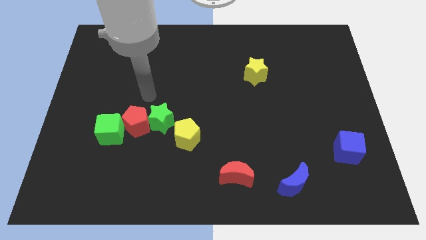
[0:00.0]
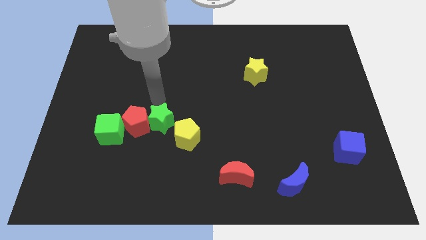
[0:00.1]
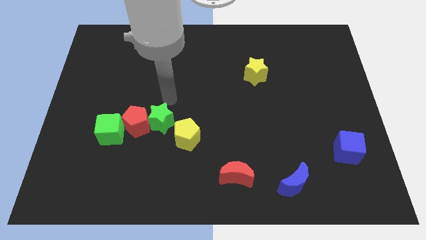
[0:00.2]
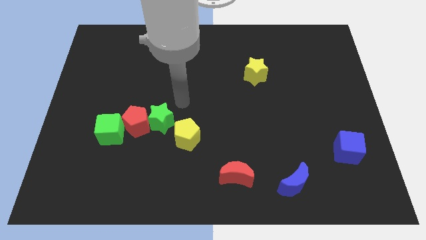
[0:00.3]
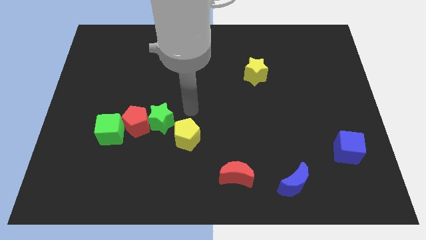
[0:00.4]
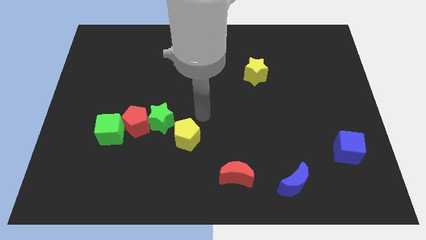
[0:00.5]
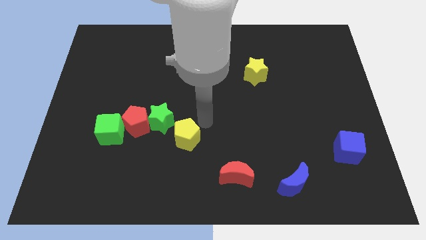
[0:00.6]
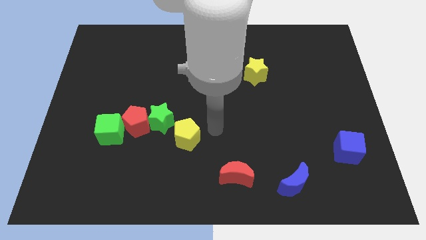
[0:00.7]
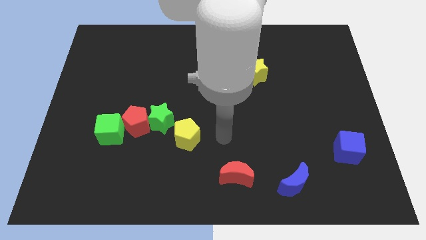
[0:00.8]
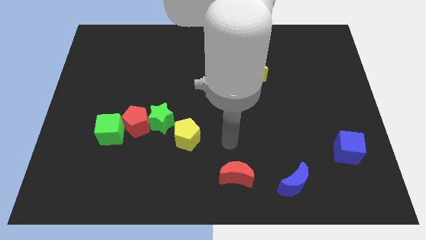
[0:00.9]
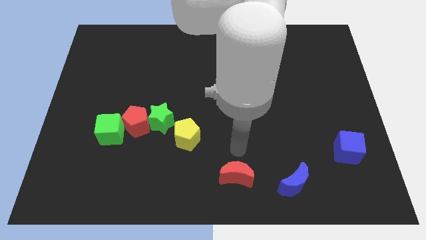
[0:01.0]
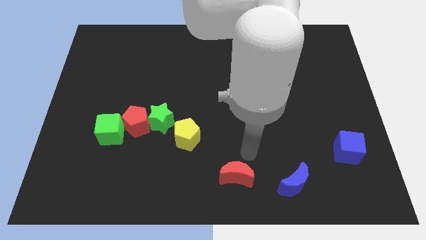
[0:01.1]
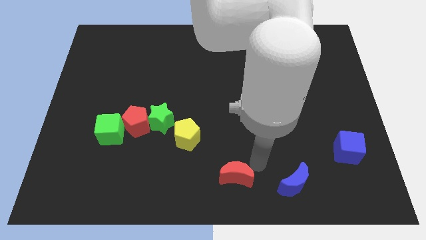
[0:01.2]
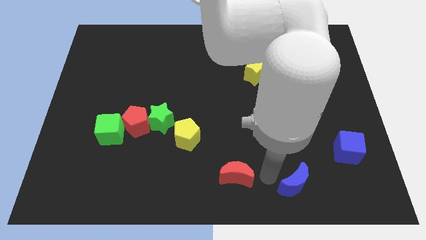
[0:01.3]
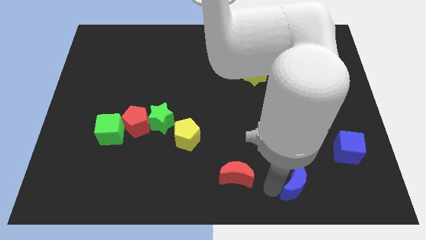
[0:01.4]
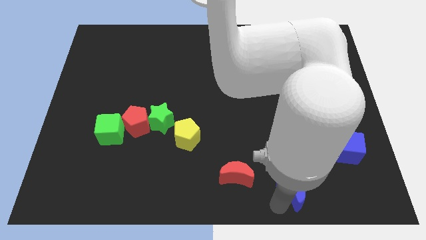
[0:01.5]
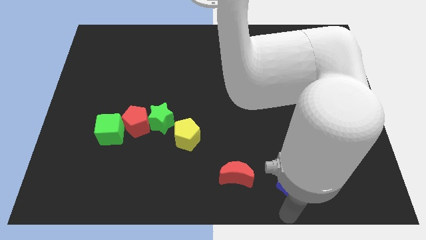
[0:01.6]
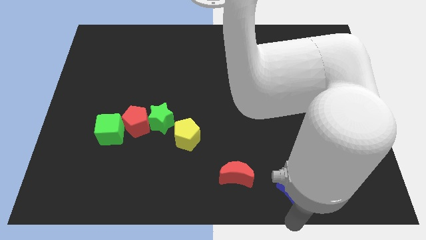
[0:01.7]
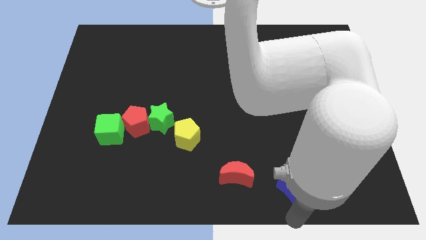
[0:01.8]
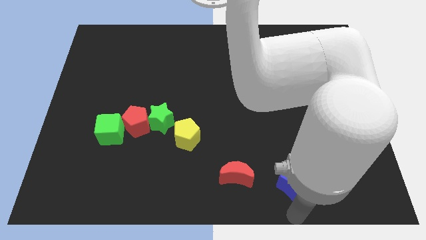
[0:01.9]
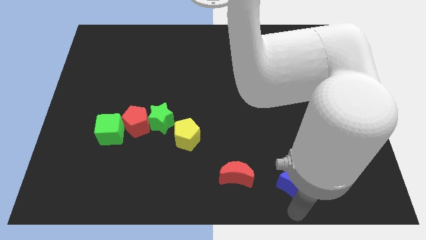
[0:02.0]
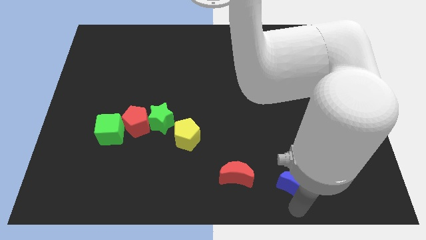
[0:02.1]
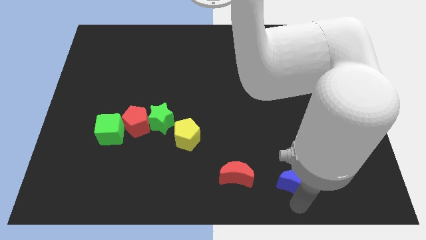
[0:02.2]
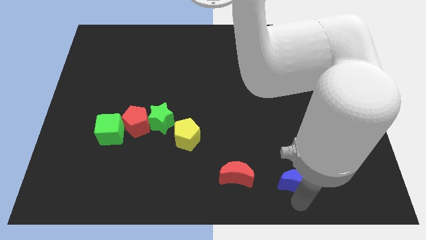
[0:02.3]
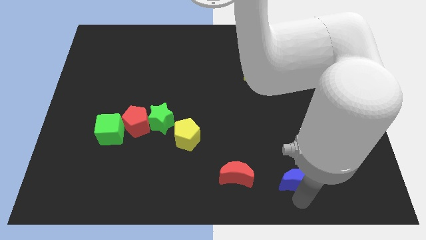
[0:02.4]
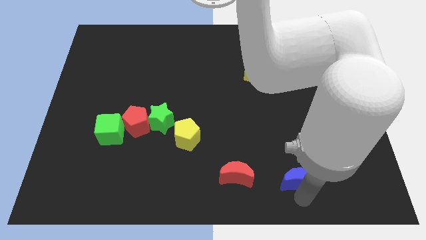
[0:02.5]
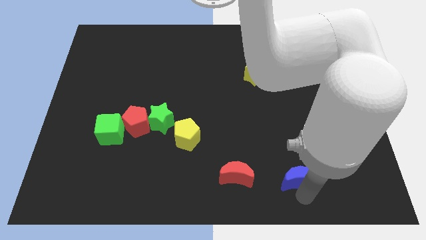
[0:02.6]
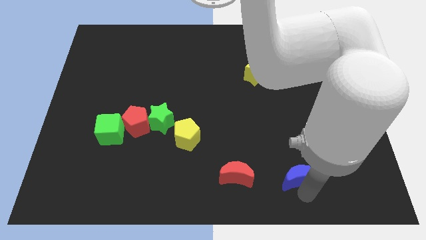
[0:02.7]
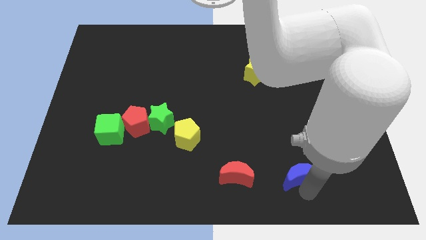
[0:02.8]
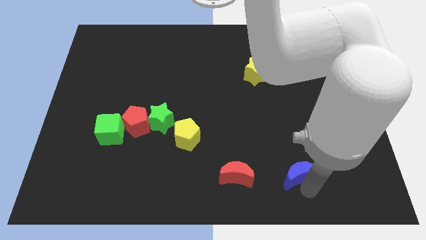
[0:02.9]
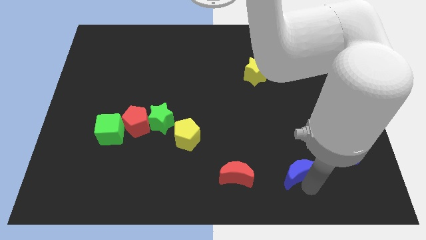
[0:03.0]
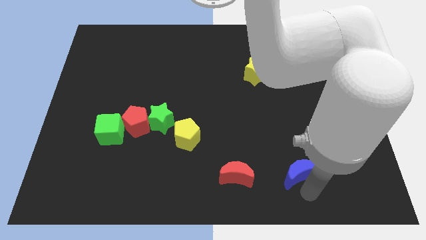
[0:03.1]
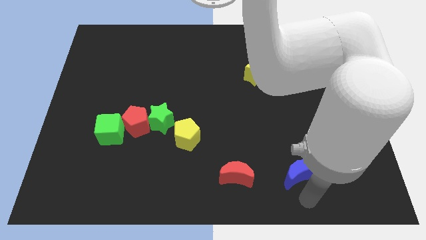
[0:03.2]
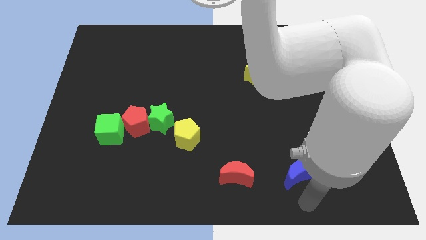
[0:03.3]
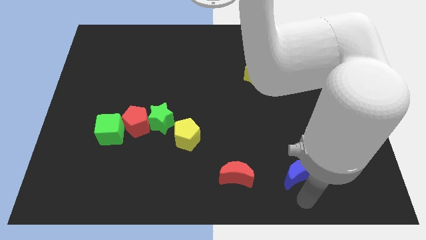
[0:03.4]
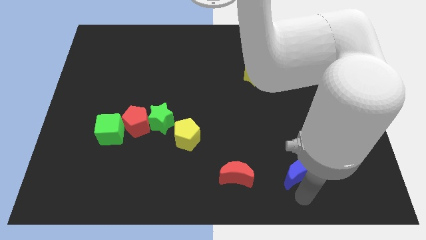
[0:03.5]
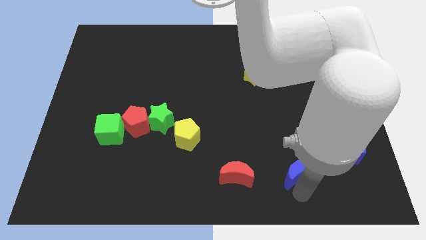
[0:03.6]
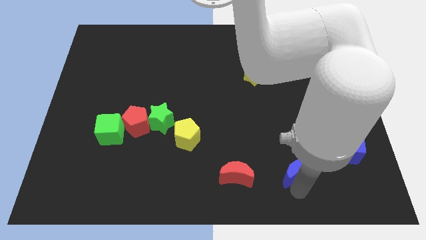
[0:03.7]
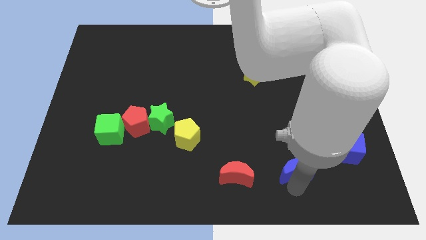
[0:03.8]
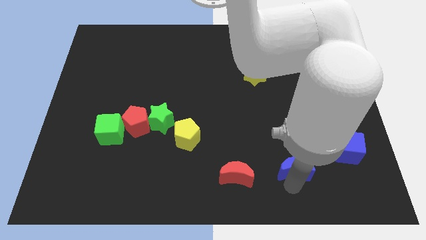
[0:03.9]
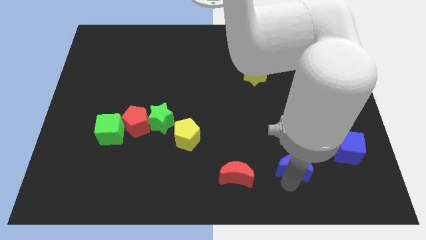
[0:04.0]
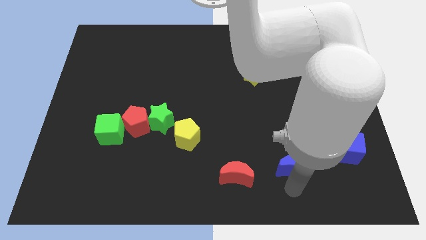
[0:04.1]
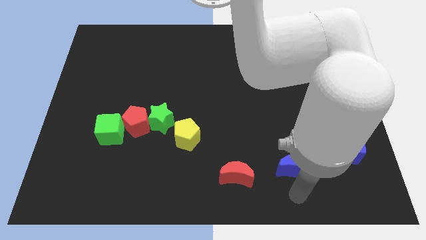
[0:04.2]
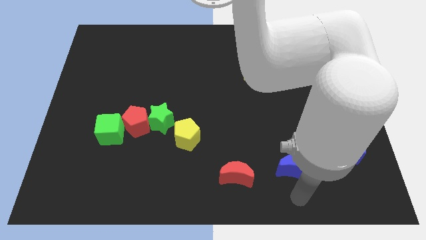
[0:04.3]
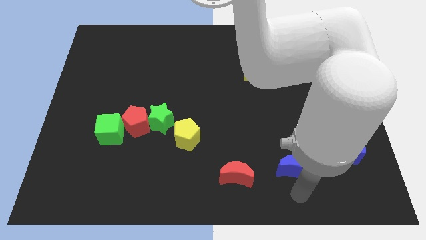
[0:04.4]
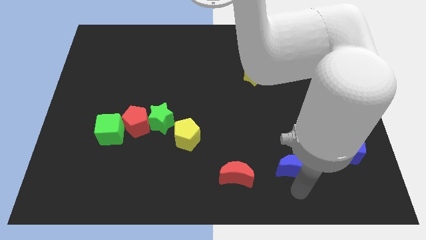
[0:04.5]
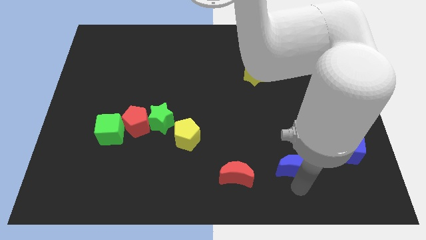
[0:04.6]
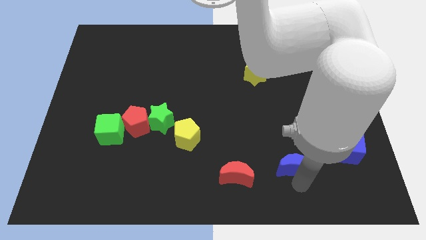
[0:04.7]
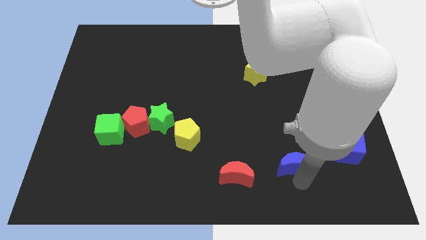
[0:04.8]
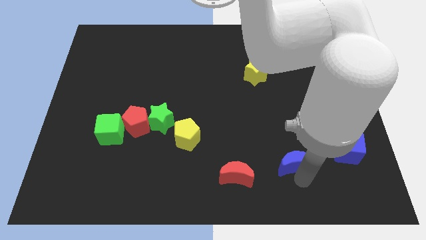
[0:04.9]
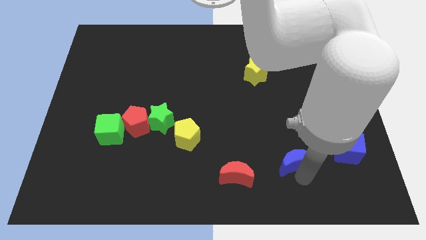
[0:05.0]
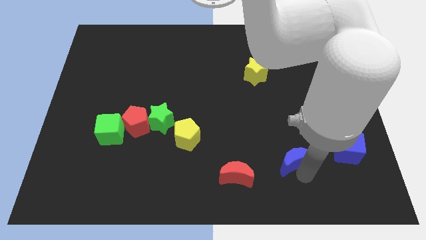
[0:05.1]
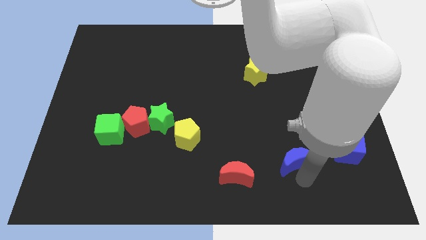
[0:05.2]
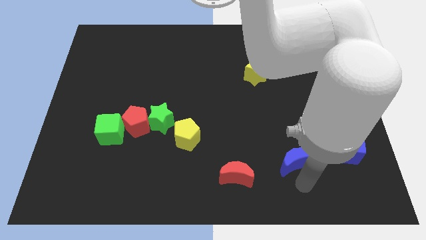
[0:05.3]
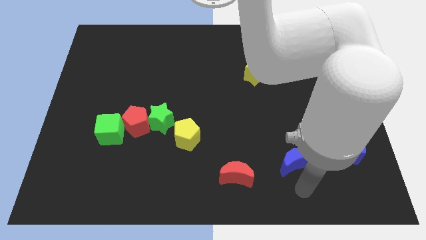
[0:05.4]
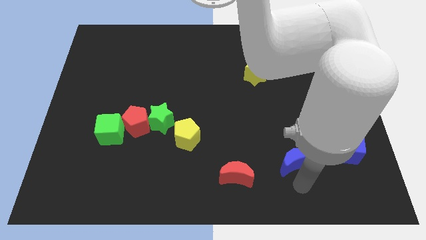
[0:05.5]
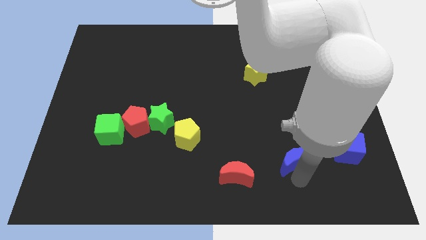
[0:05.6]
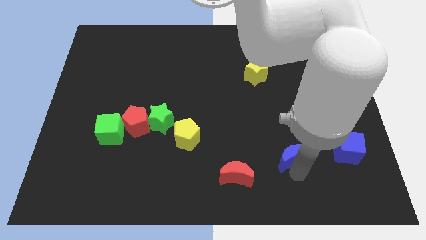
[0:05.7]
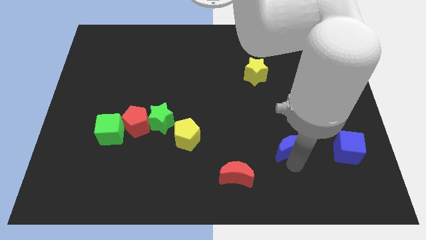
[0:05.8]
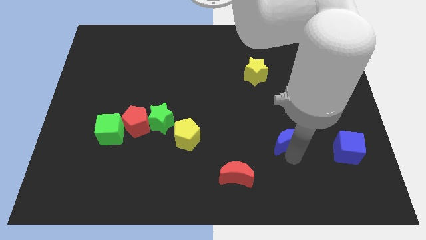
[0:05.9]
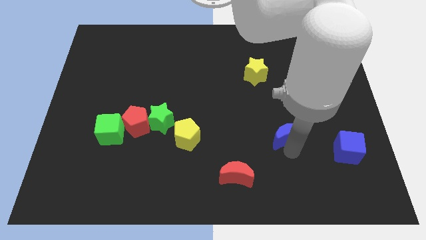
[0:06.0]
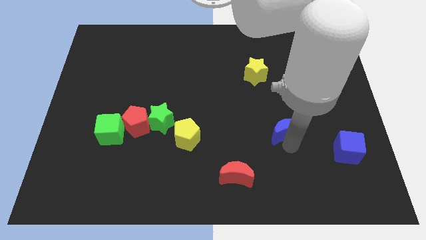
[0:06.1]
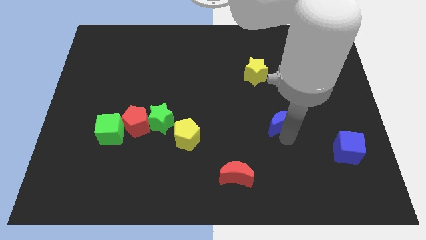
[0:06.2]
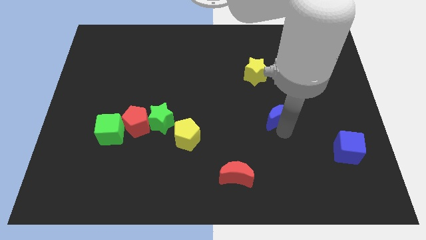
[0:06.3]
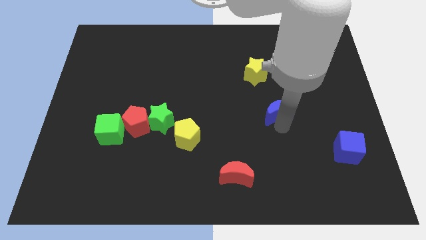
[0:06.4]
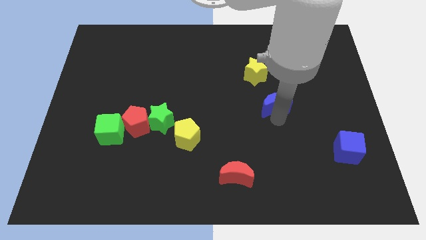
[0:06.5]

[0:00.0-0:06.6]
push the blue moon up

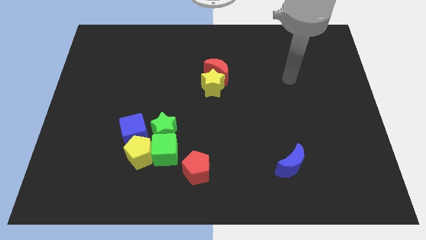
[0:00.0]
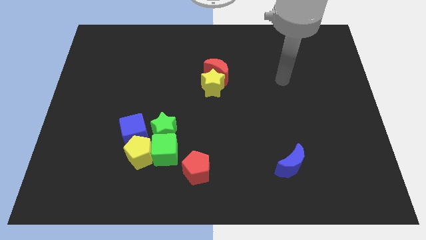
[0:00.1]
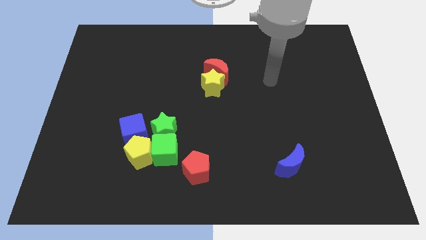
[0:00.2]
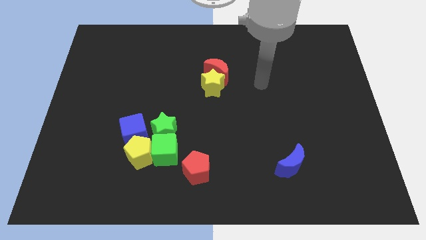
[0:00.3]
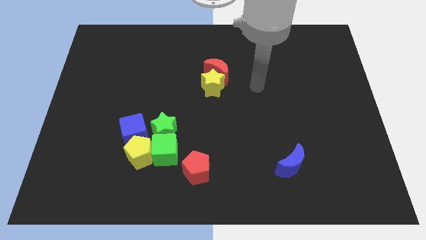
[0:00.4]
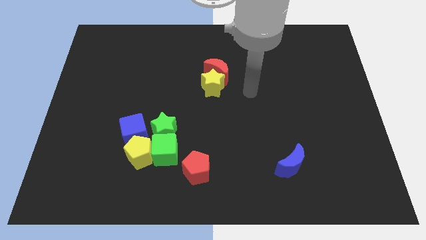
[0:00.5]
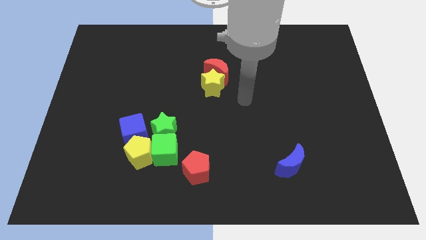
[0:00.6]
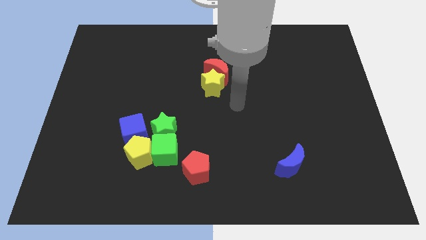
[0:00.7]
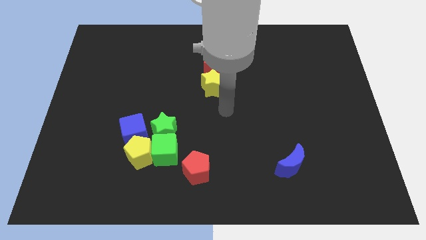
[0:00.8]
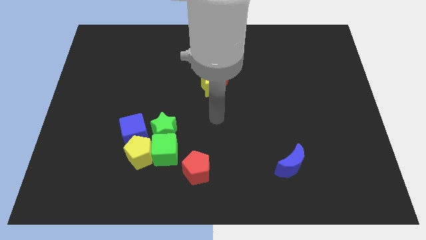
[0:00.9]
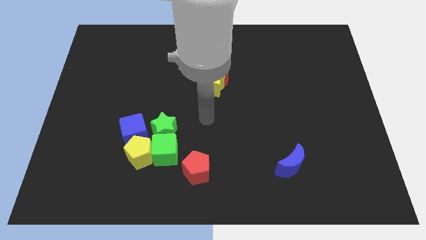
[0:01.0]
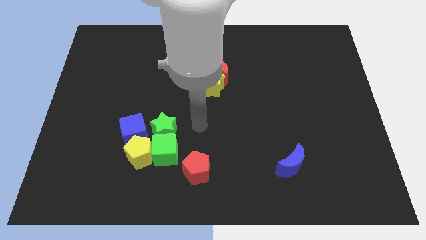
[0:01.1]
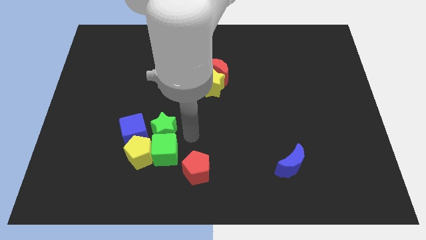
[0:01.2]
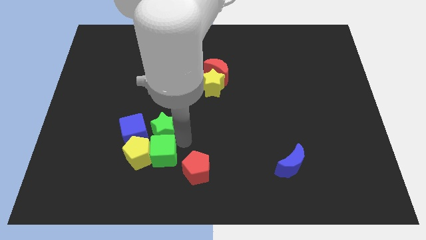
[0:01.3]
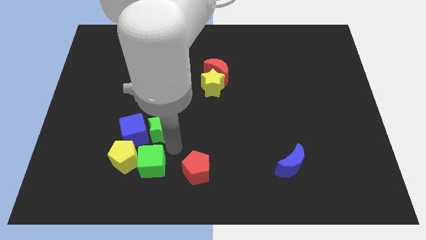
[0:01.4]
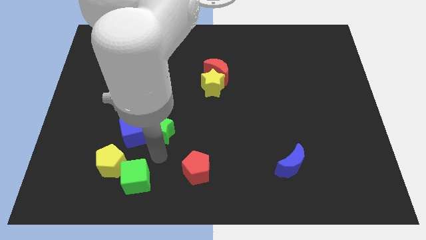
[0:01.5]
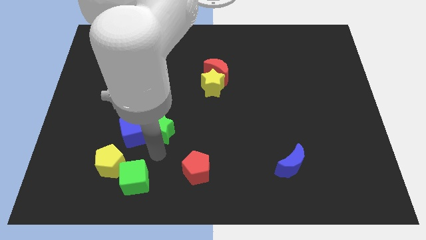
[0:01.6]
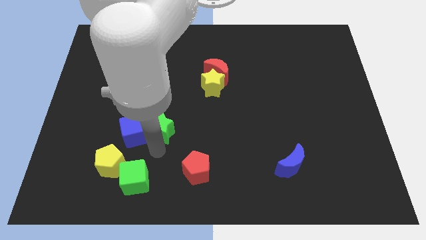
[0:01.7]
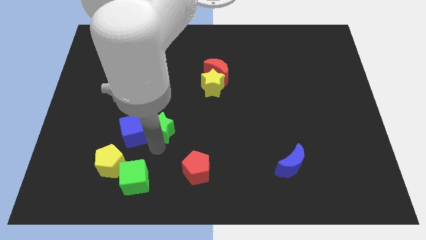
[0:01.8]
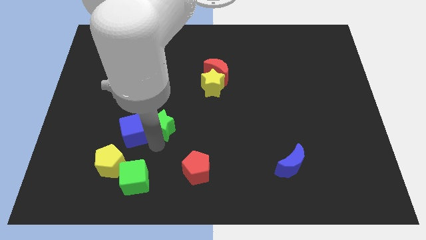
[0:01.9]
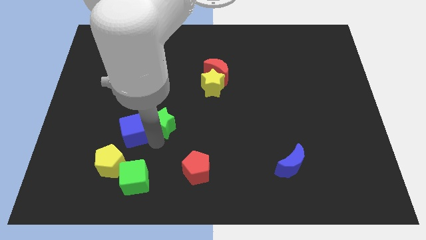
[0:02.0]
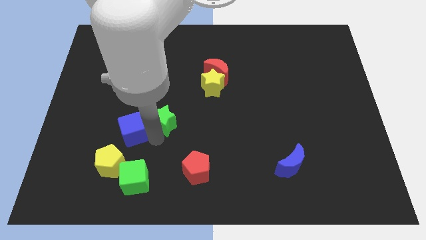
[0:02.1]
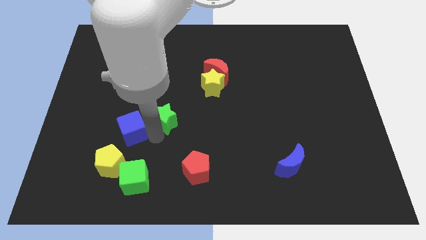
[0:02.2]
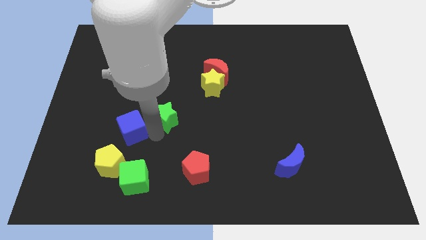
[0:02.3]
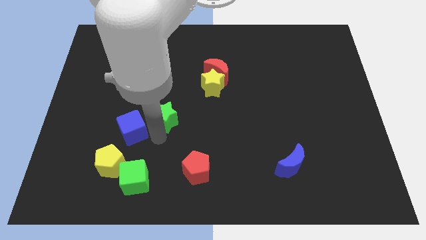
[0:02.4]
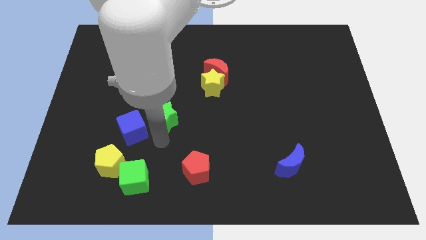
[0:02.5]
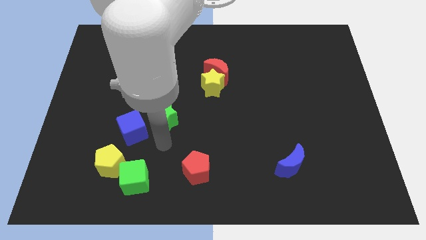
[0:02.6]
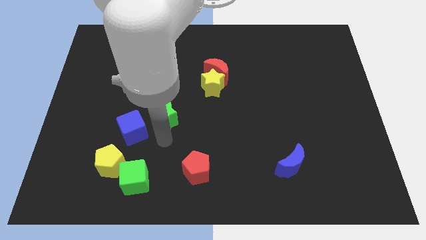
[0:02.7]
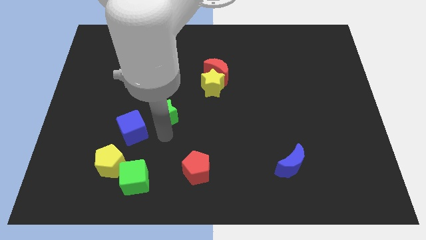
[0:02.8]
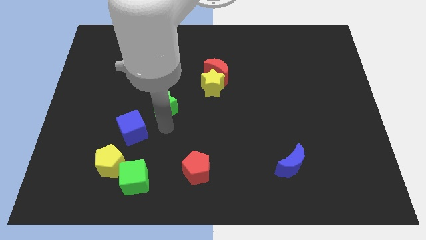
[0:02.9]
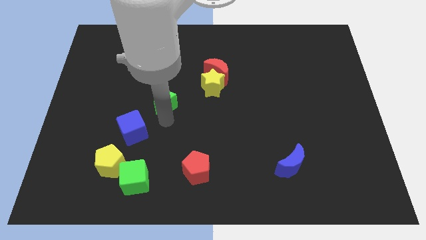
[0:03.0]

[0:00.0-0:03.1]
slightly move the green star up
